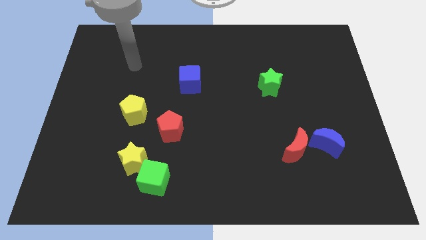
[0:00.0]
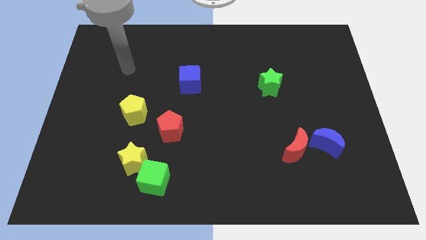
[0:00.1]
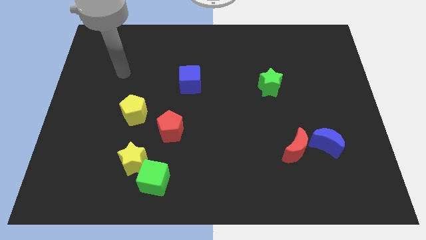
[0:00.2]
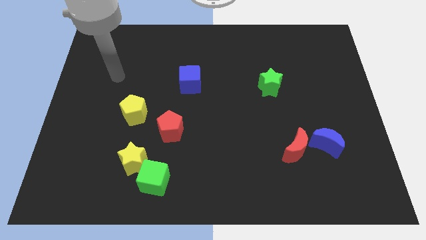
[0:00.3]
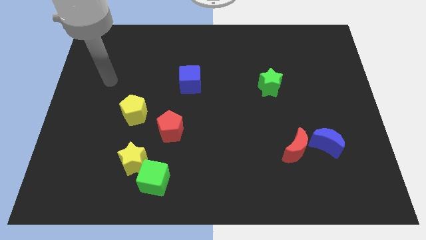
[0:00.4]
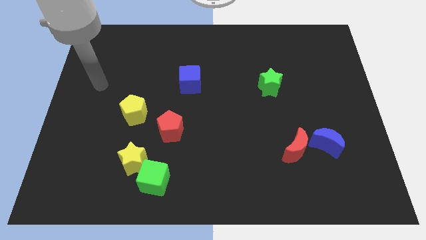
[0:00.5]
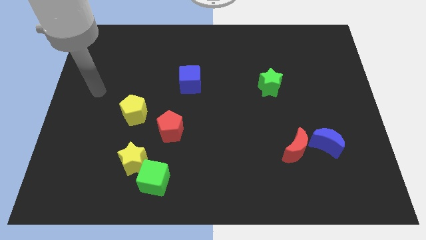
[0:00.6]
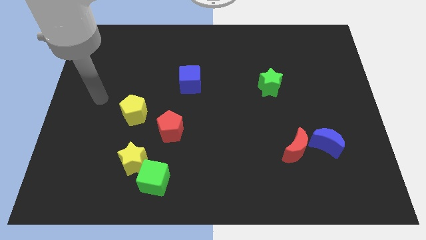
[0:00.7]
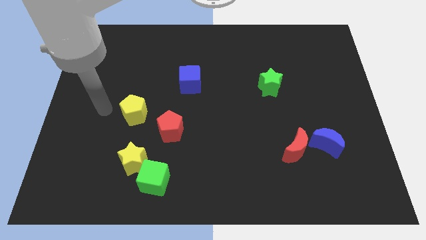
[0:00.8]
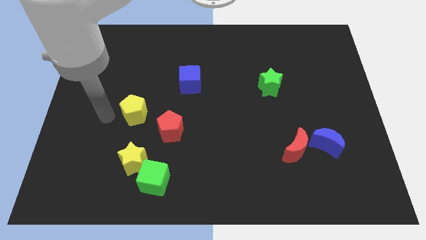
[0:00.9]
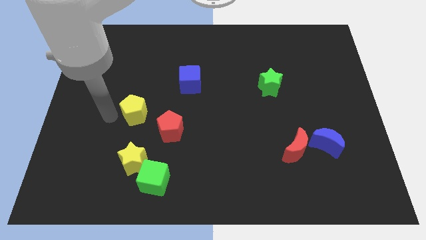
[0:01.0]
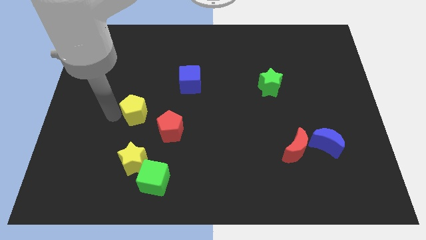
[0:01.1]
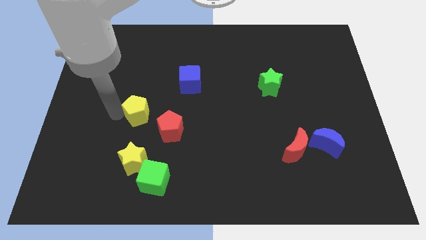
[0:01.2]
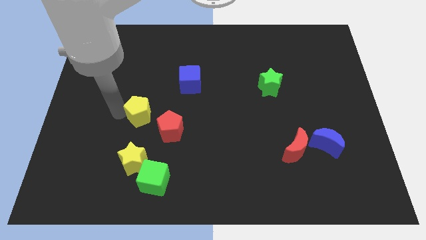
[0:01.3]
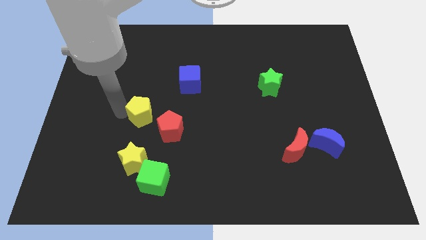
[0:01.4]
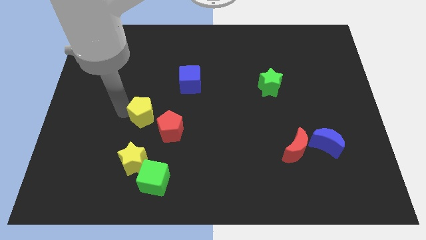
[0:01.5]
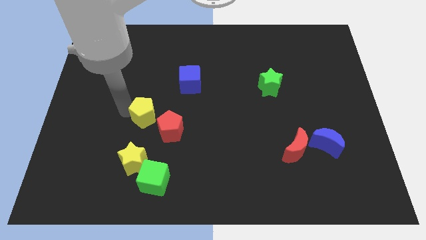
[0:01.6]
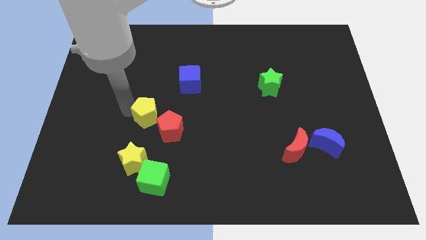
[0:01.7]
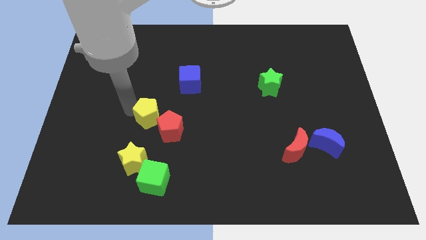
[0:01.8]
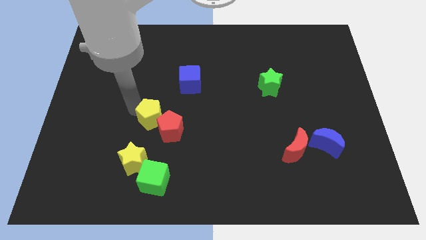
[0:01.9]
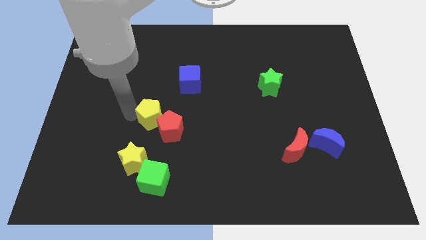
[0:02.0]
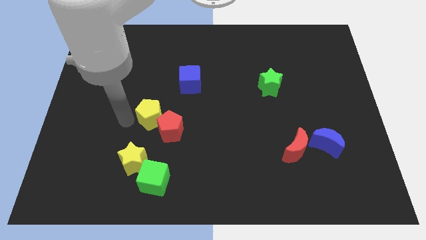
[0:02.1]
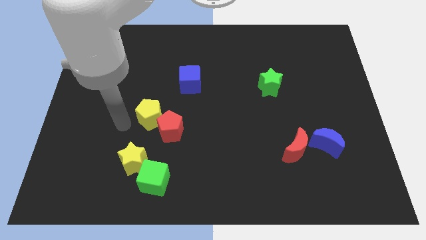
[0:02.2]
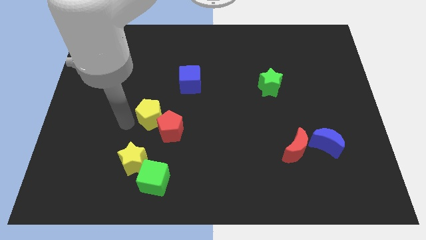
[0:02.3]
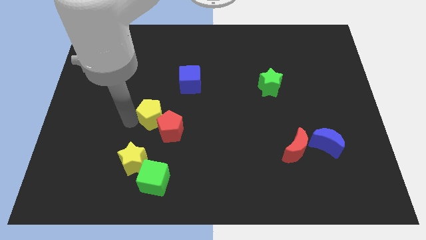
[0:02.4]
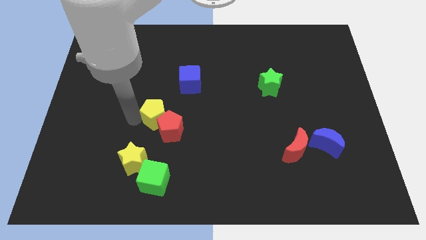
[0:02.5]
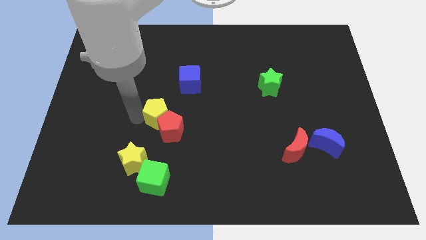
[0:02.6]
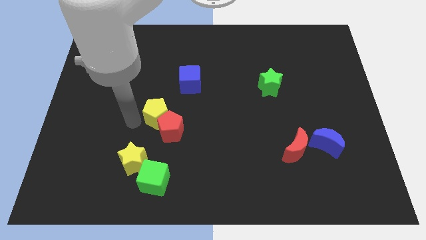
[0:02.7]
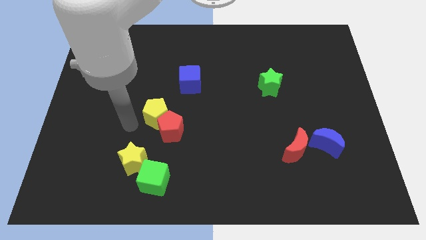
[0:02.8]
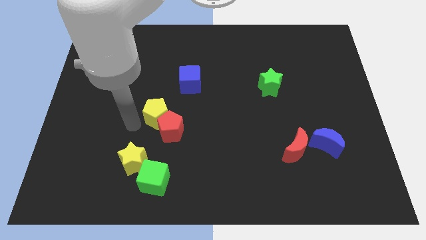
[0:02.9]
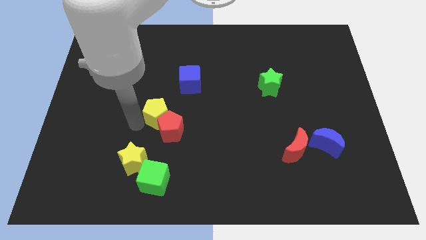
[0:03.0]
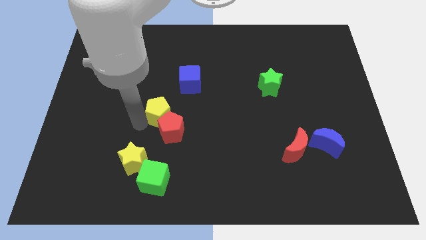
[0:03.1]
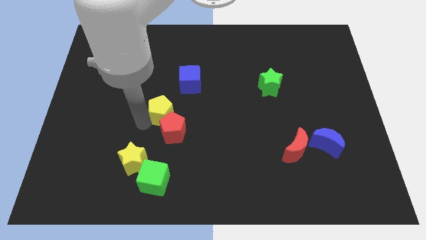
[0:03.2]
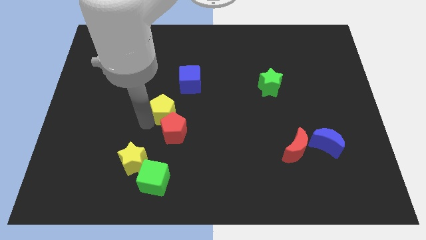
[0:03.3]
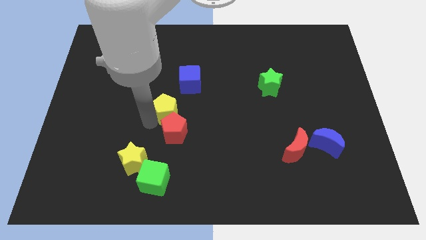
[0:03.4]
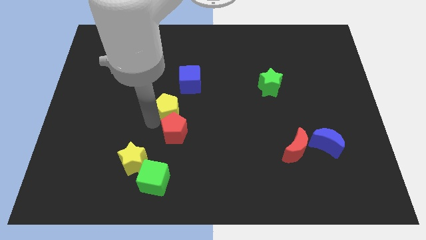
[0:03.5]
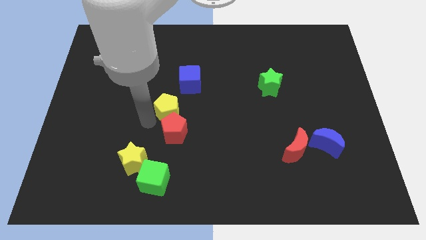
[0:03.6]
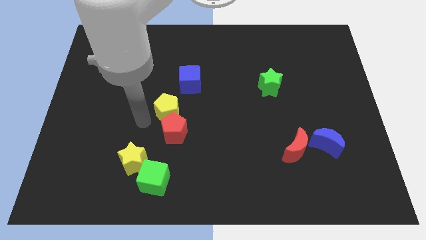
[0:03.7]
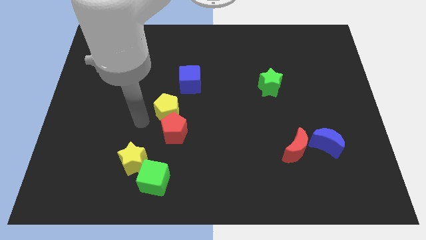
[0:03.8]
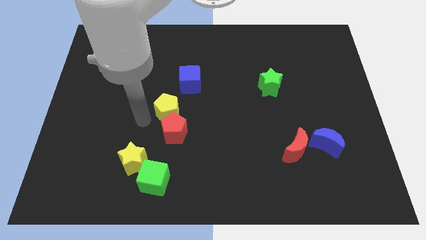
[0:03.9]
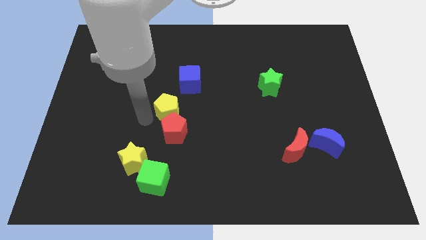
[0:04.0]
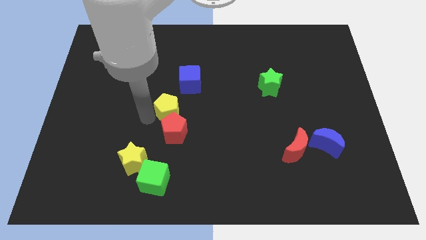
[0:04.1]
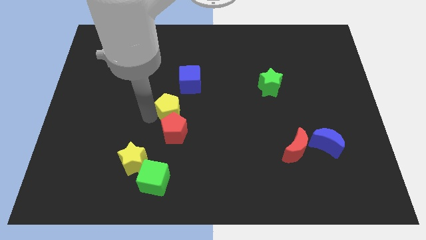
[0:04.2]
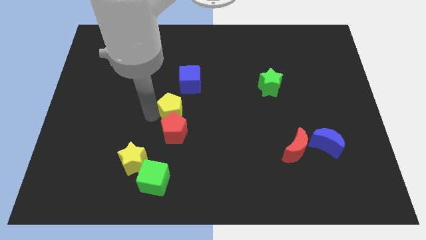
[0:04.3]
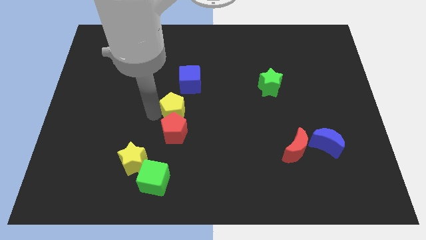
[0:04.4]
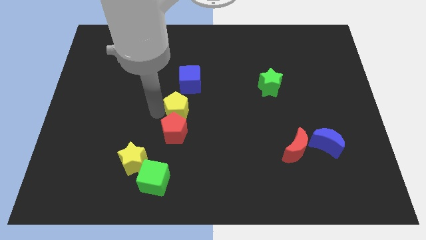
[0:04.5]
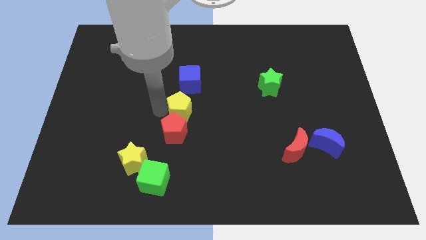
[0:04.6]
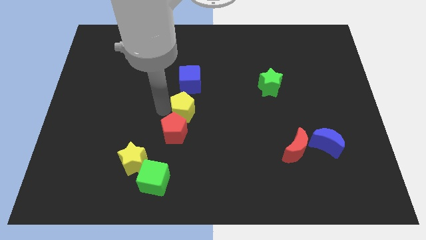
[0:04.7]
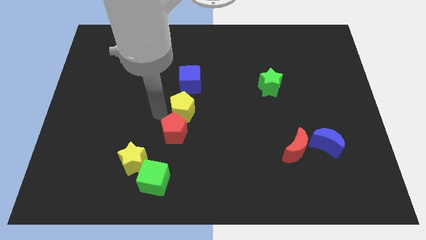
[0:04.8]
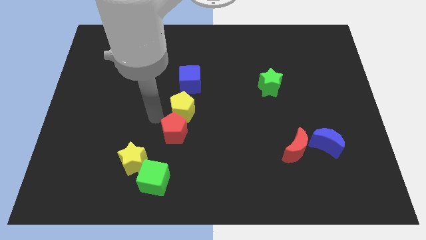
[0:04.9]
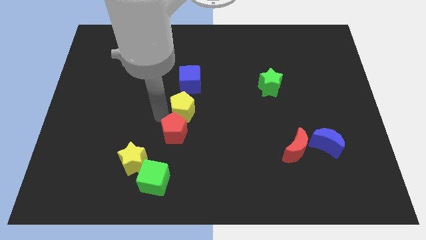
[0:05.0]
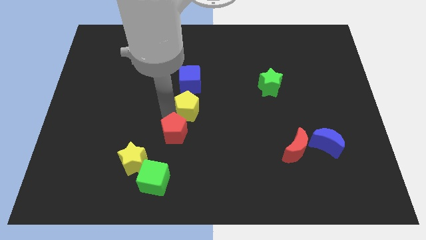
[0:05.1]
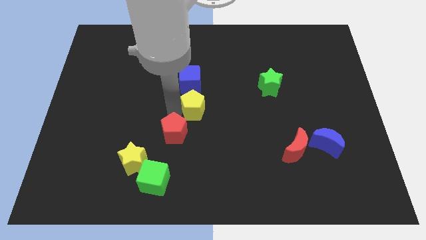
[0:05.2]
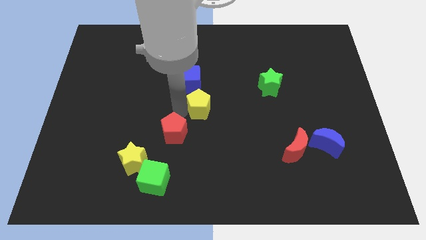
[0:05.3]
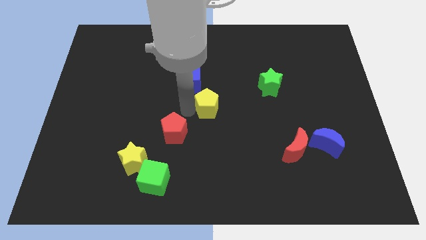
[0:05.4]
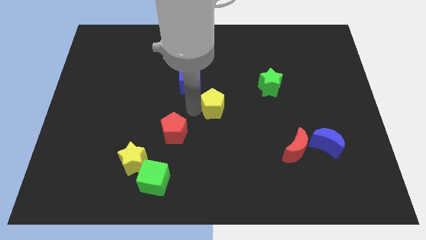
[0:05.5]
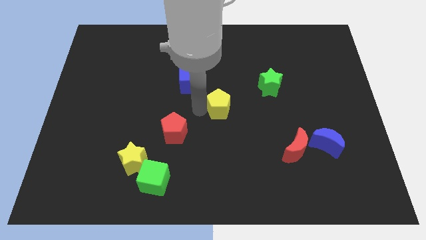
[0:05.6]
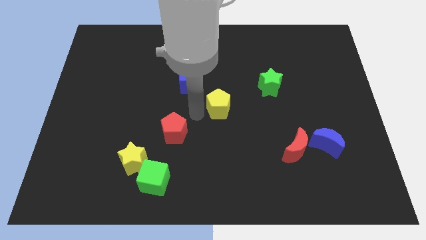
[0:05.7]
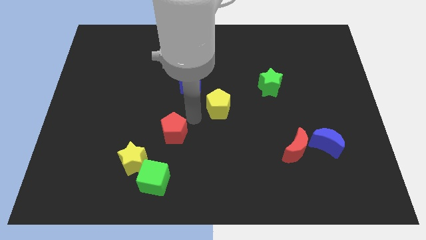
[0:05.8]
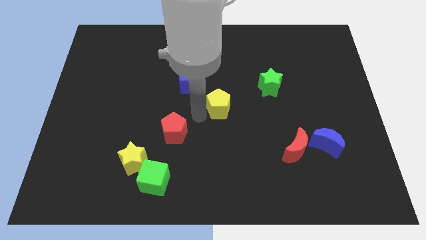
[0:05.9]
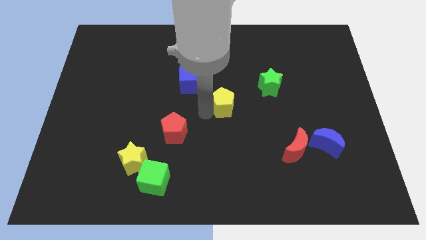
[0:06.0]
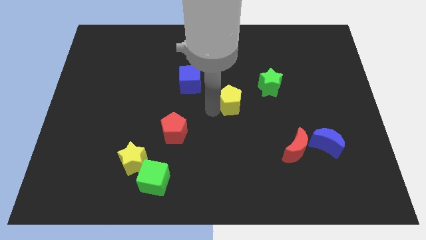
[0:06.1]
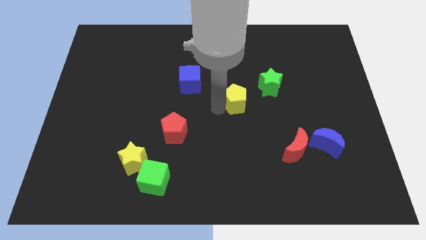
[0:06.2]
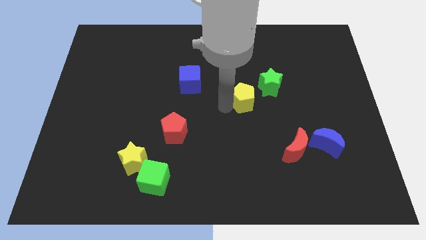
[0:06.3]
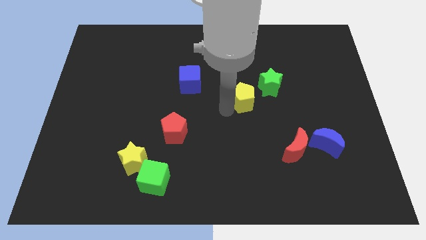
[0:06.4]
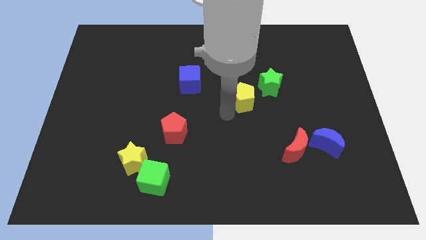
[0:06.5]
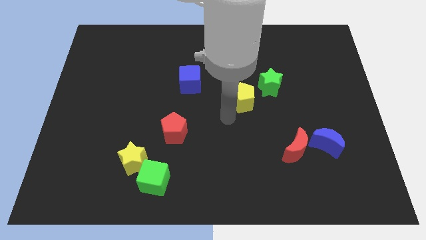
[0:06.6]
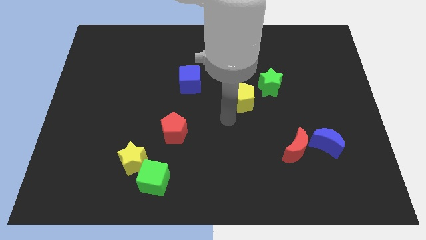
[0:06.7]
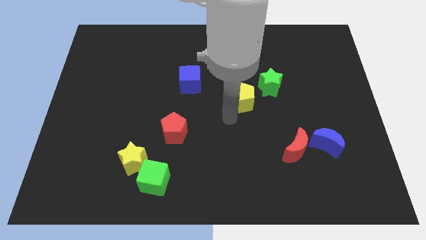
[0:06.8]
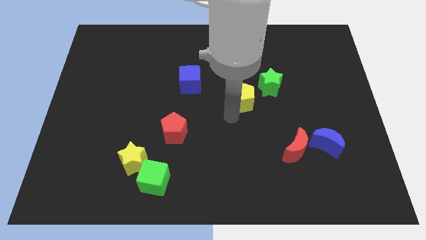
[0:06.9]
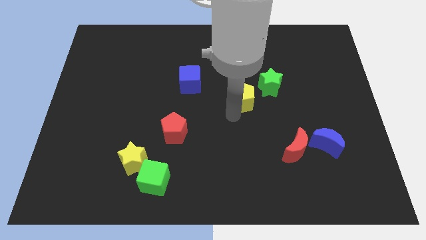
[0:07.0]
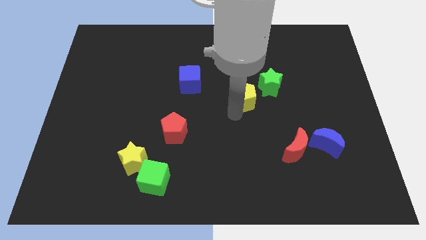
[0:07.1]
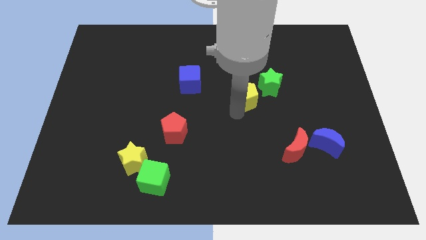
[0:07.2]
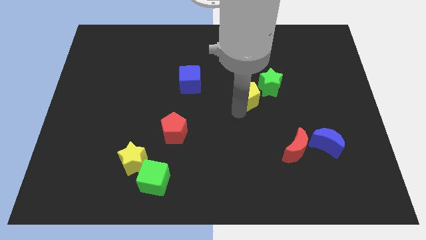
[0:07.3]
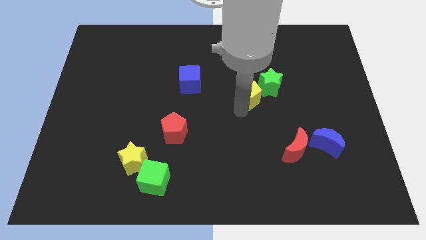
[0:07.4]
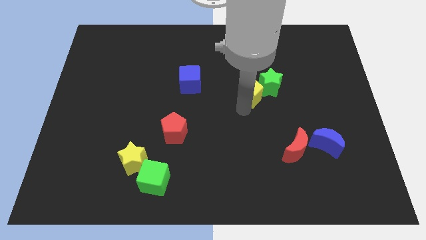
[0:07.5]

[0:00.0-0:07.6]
push the yellow pentagon close to the green star
